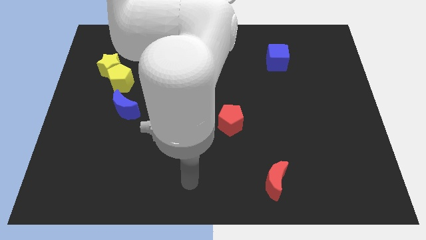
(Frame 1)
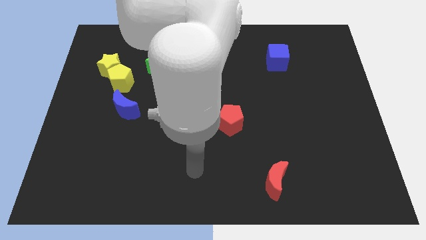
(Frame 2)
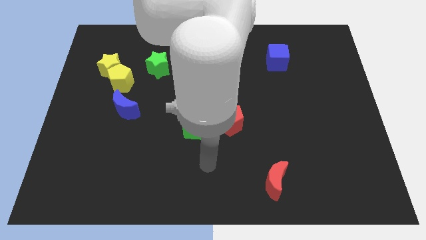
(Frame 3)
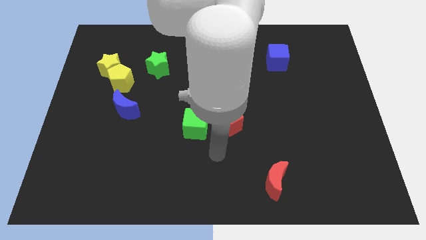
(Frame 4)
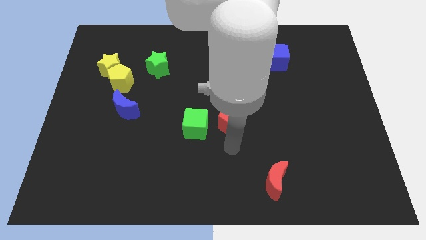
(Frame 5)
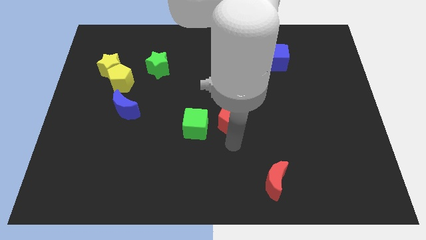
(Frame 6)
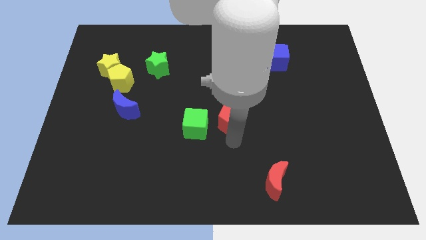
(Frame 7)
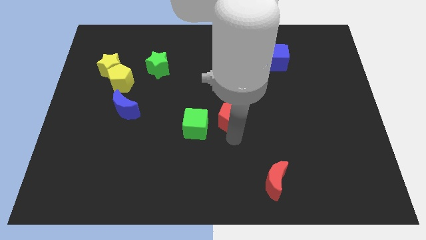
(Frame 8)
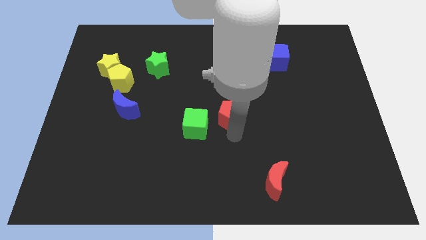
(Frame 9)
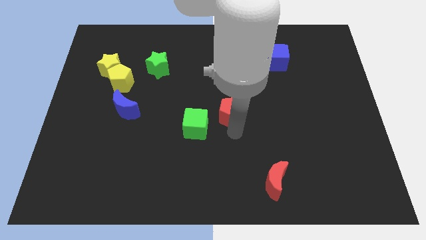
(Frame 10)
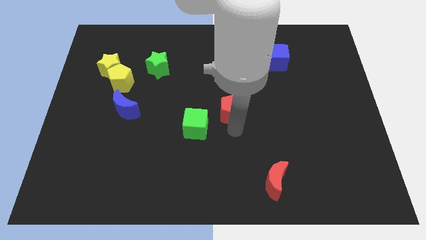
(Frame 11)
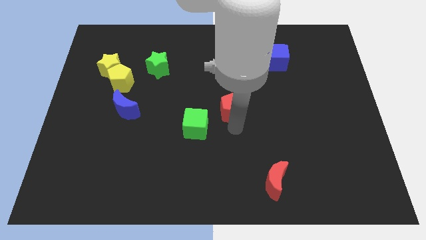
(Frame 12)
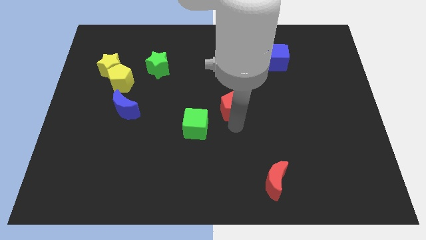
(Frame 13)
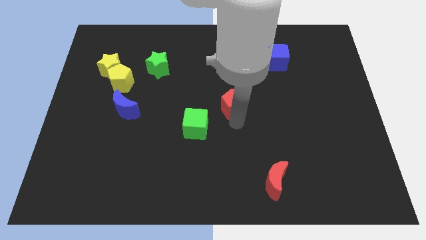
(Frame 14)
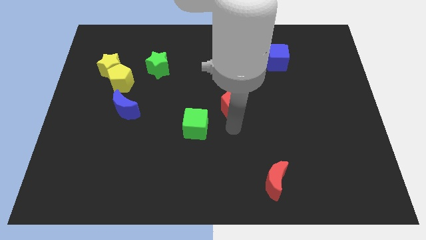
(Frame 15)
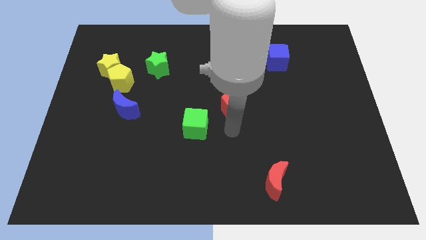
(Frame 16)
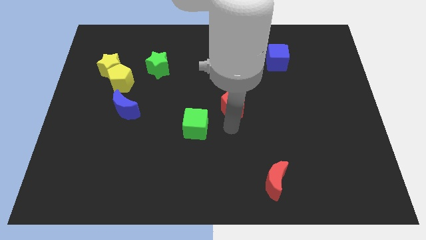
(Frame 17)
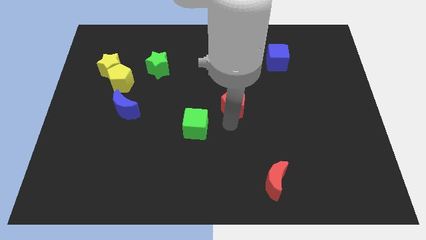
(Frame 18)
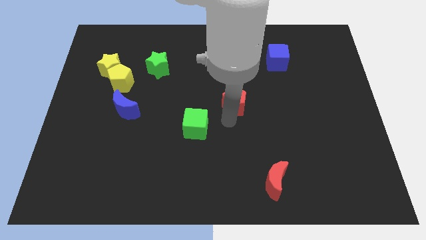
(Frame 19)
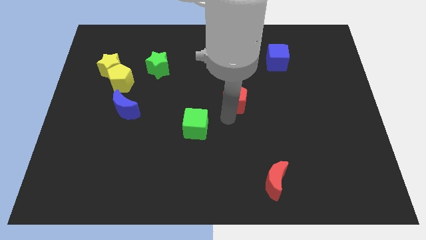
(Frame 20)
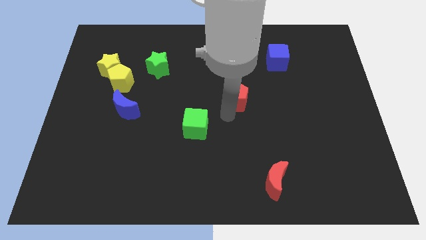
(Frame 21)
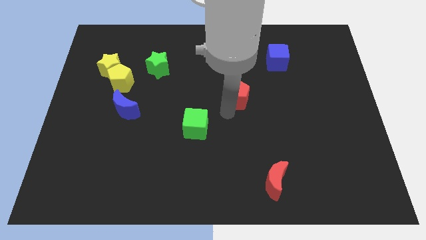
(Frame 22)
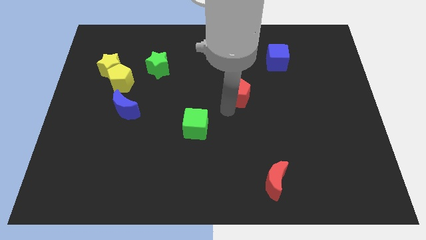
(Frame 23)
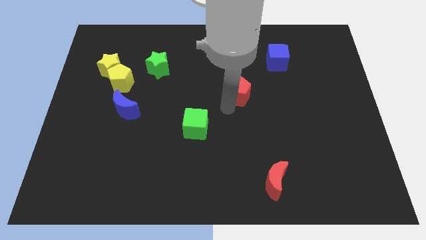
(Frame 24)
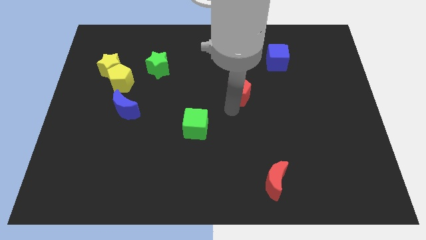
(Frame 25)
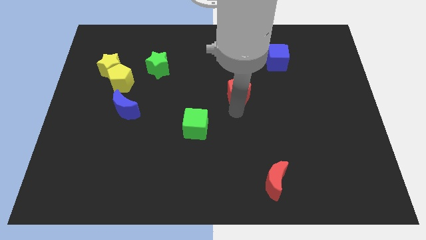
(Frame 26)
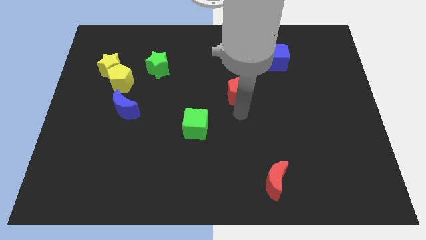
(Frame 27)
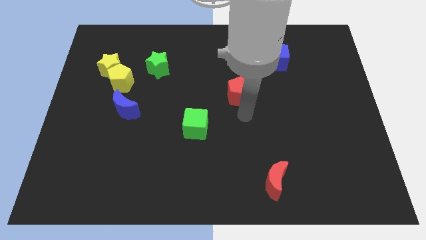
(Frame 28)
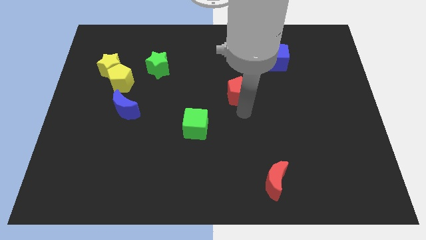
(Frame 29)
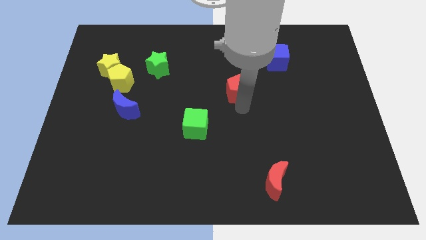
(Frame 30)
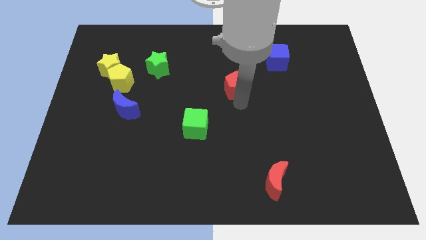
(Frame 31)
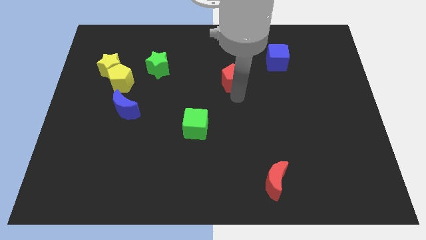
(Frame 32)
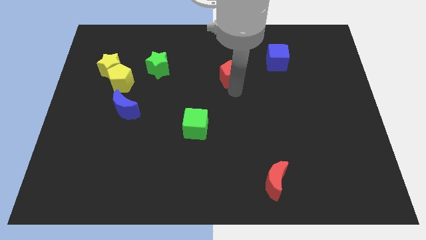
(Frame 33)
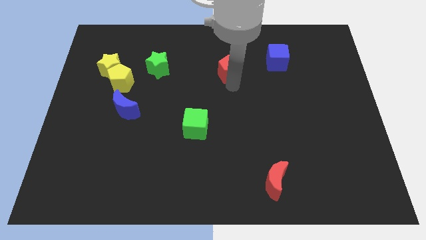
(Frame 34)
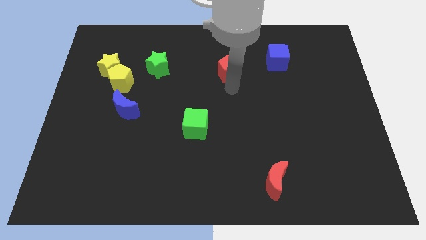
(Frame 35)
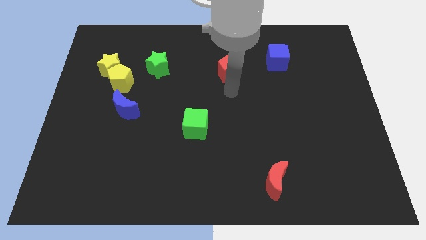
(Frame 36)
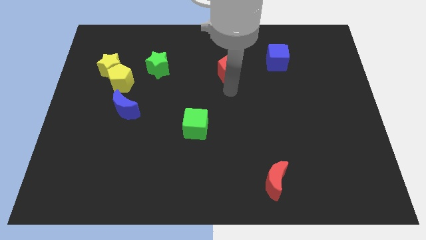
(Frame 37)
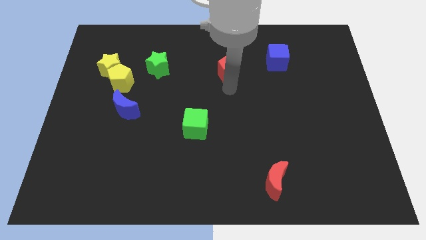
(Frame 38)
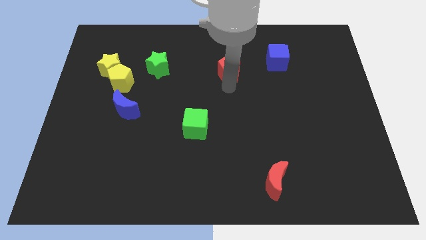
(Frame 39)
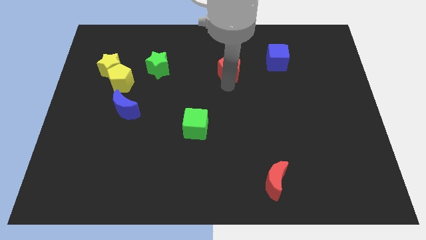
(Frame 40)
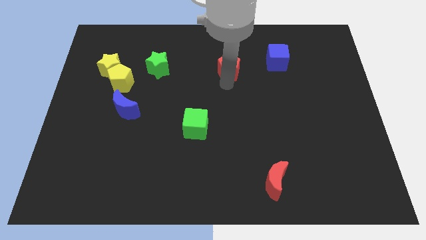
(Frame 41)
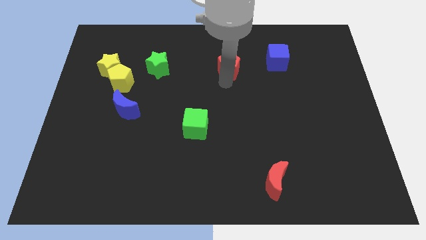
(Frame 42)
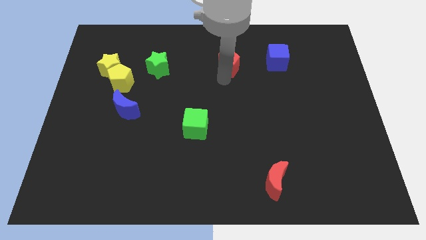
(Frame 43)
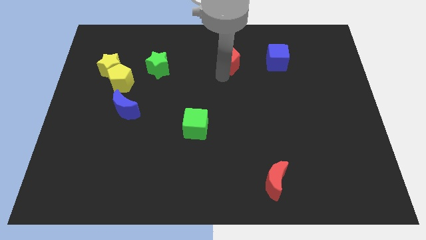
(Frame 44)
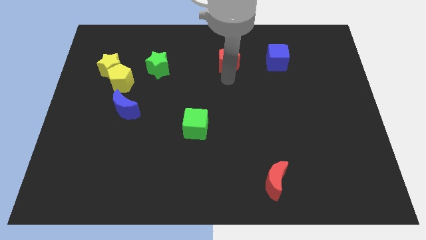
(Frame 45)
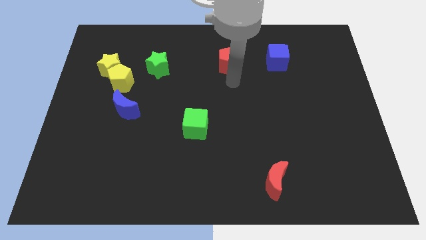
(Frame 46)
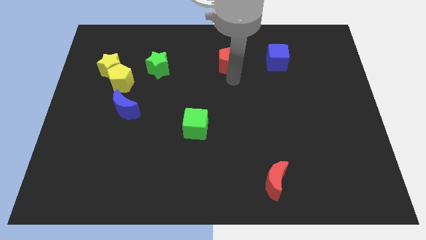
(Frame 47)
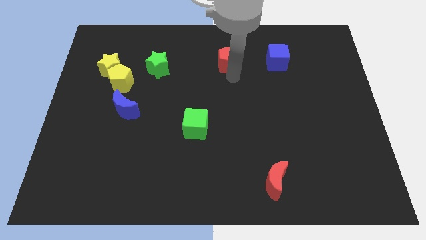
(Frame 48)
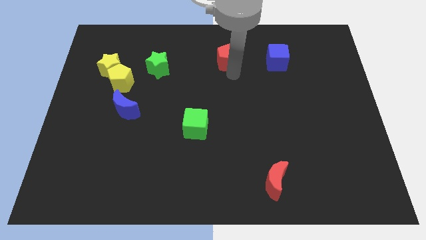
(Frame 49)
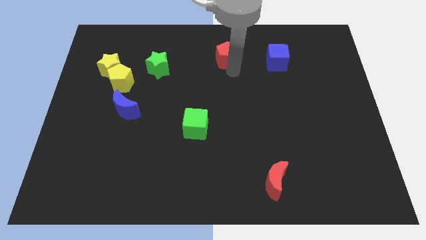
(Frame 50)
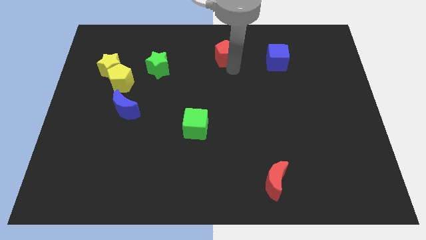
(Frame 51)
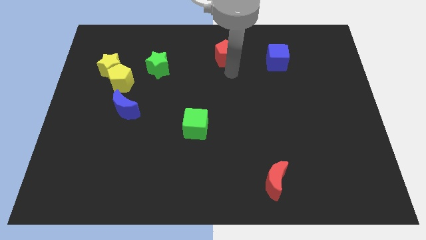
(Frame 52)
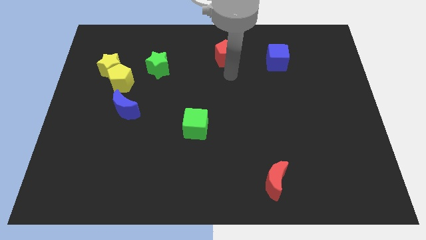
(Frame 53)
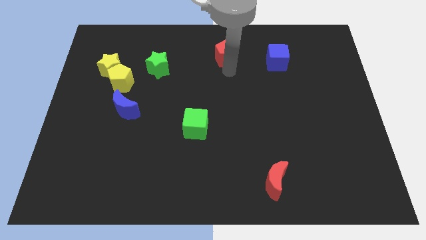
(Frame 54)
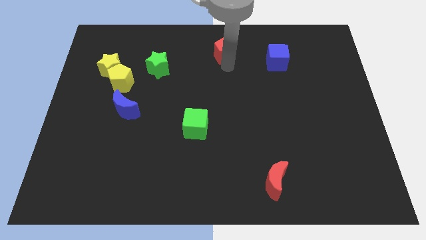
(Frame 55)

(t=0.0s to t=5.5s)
move the red pentagon to the towards your base

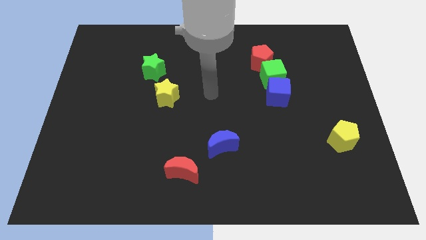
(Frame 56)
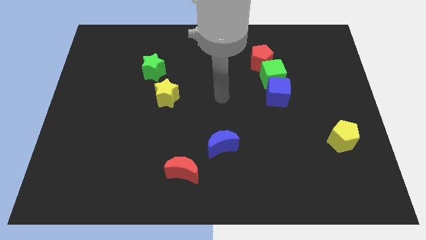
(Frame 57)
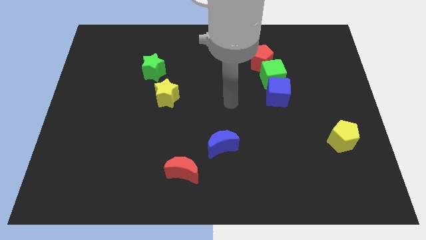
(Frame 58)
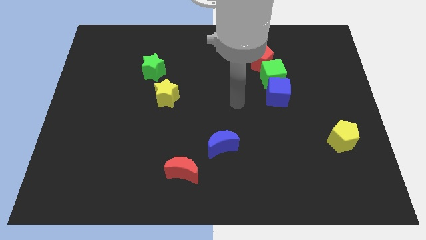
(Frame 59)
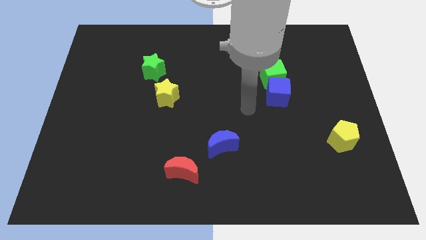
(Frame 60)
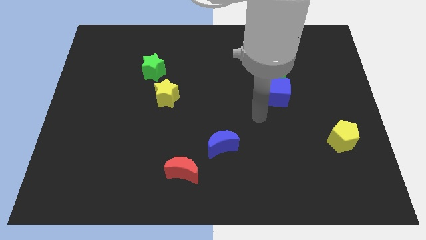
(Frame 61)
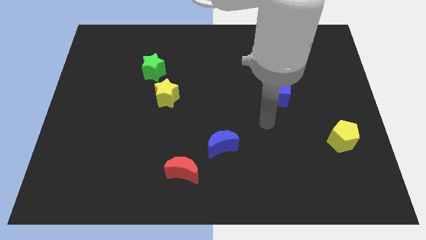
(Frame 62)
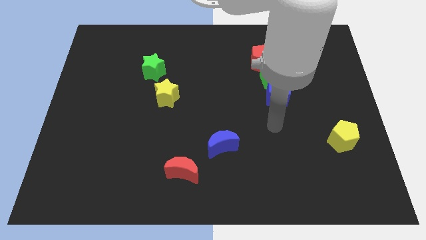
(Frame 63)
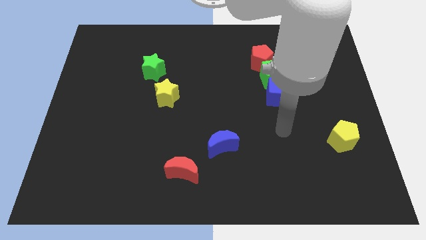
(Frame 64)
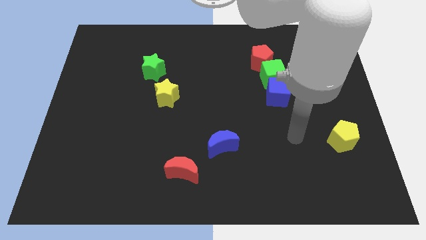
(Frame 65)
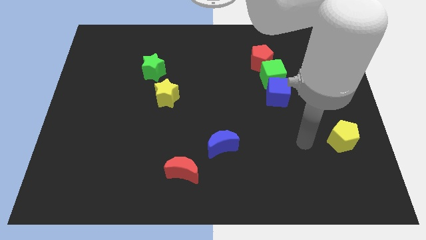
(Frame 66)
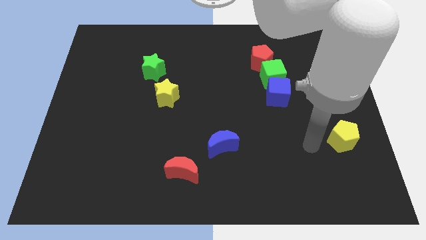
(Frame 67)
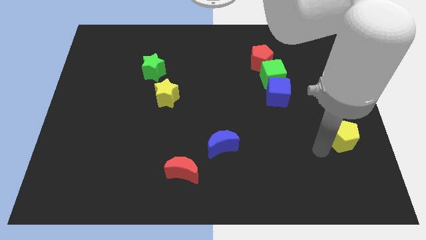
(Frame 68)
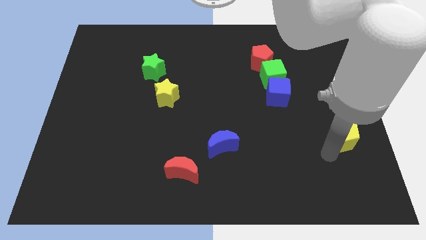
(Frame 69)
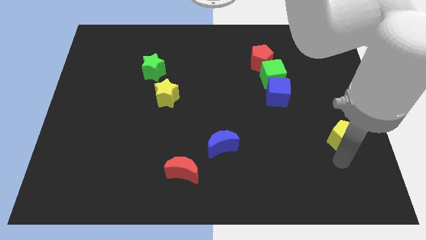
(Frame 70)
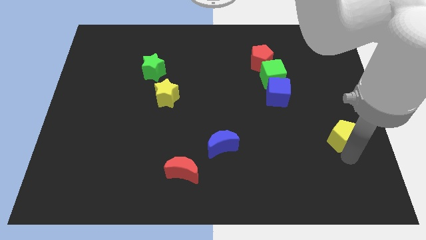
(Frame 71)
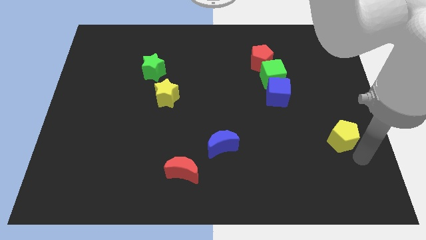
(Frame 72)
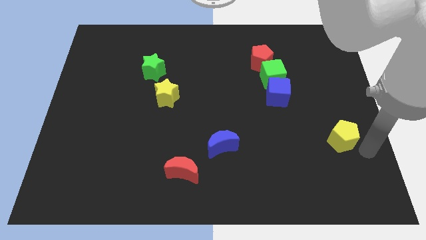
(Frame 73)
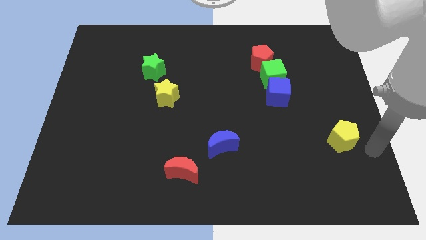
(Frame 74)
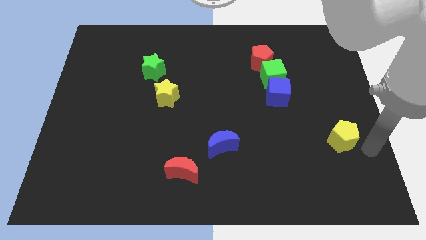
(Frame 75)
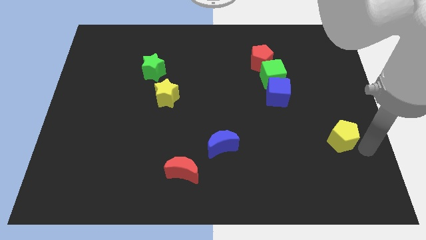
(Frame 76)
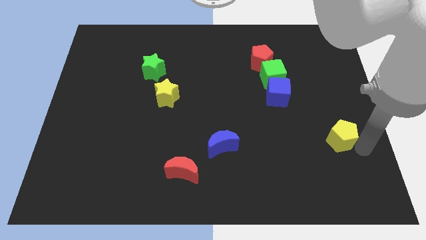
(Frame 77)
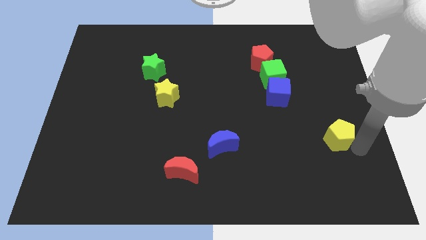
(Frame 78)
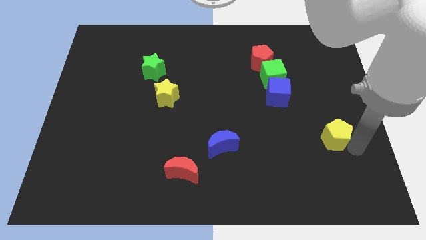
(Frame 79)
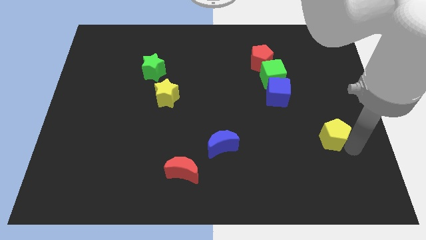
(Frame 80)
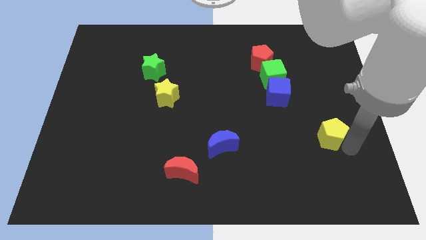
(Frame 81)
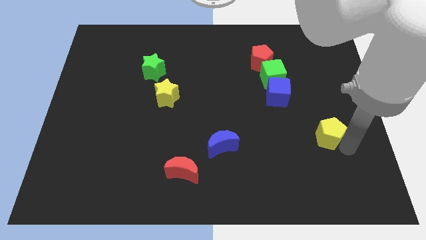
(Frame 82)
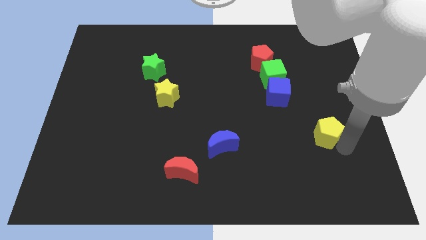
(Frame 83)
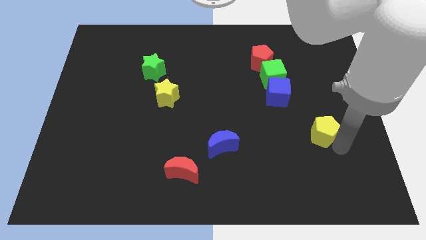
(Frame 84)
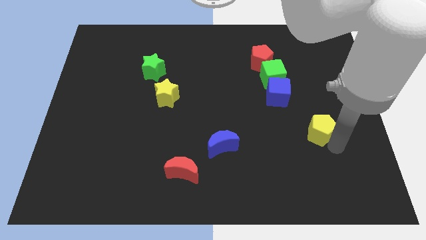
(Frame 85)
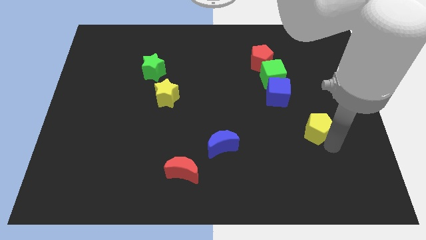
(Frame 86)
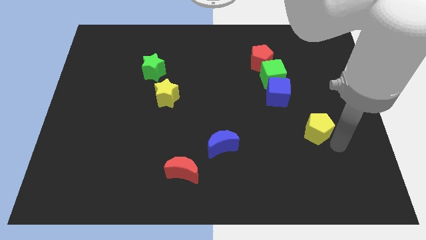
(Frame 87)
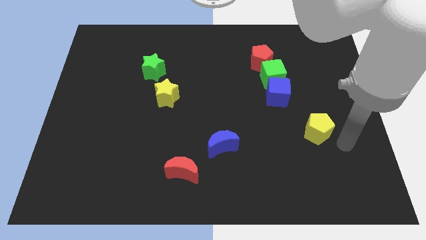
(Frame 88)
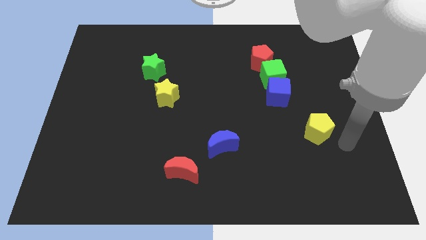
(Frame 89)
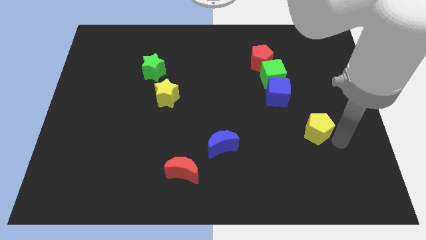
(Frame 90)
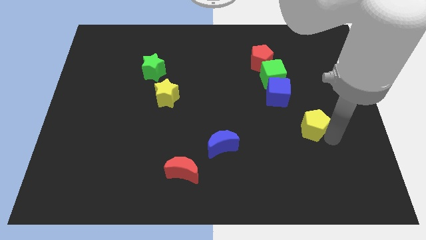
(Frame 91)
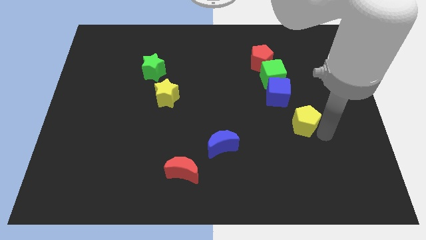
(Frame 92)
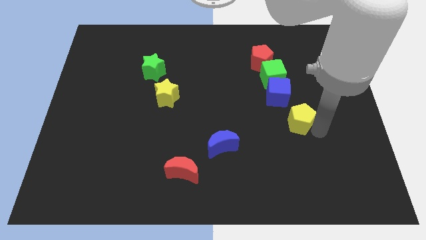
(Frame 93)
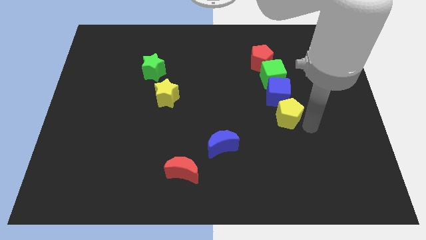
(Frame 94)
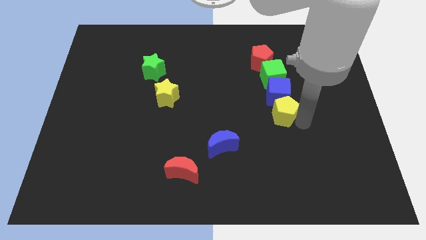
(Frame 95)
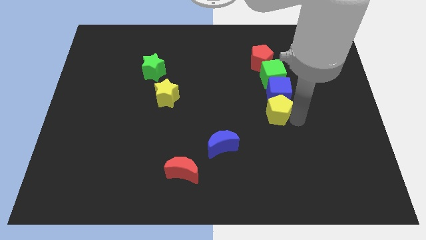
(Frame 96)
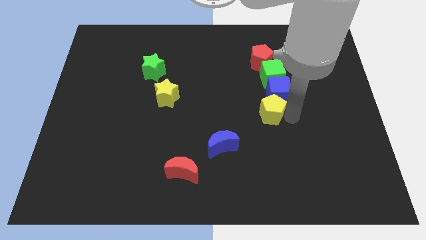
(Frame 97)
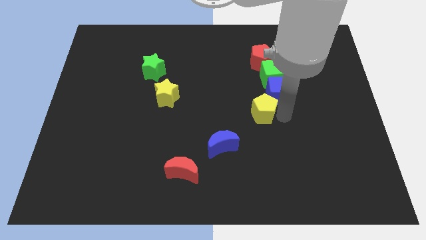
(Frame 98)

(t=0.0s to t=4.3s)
move the yellow pentagon to the middle of the board
